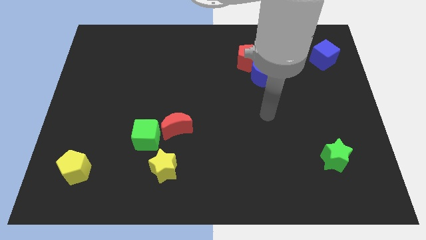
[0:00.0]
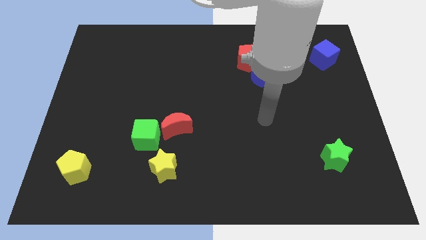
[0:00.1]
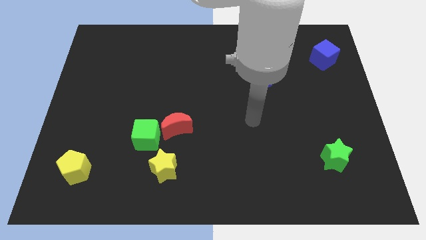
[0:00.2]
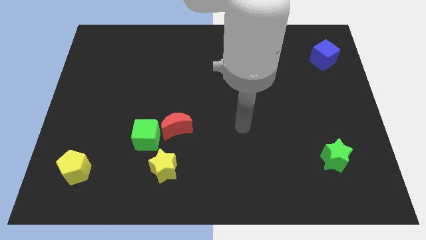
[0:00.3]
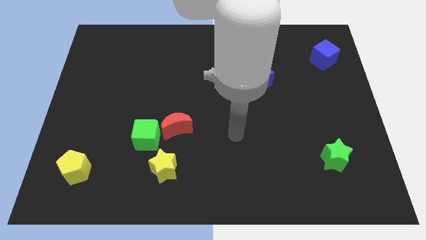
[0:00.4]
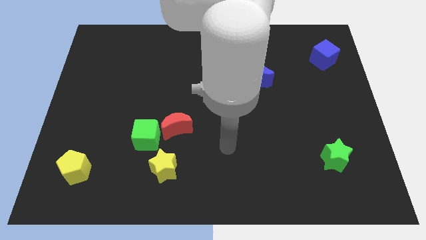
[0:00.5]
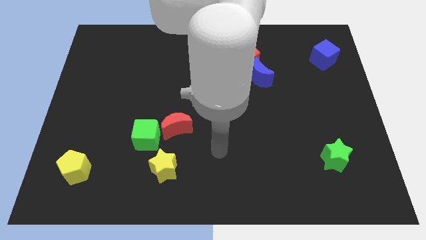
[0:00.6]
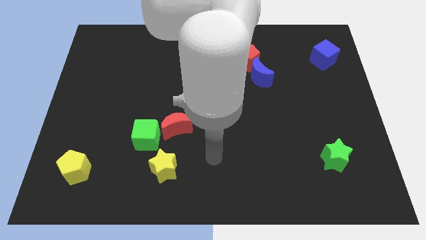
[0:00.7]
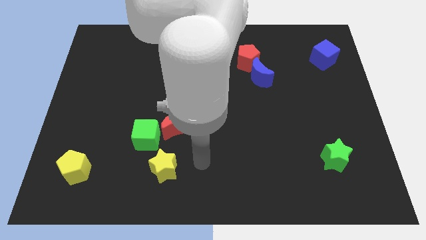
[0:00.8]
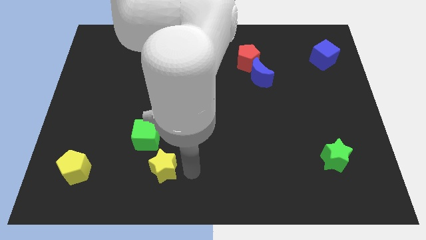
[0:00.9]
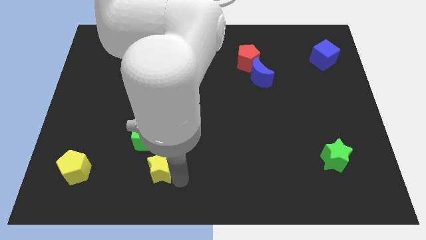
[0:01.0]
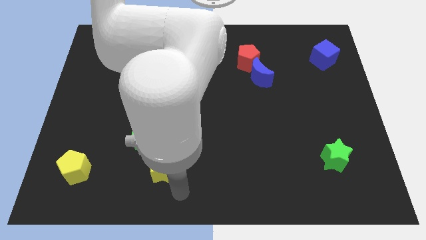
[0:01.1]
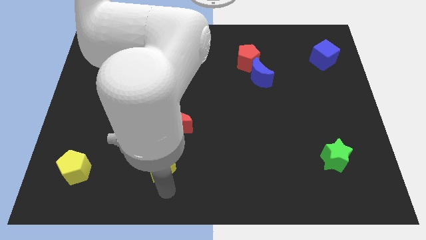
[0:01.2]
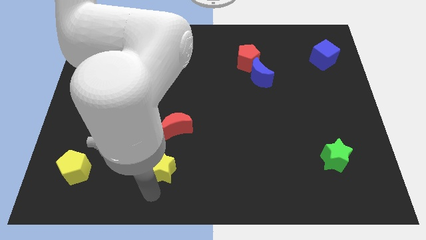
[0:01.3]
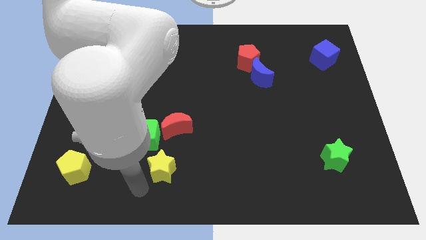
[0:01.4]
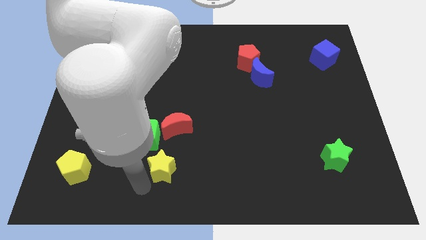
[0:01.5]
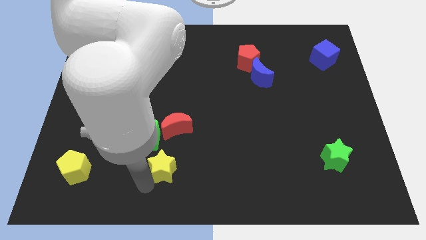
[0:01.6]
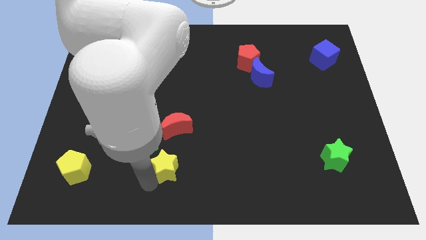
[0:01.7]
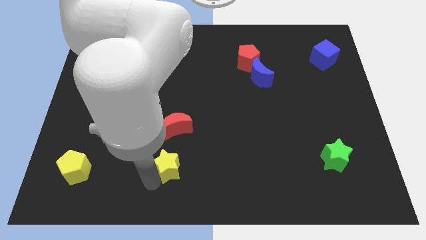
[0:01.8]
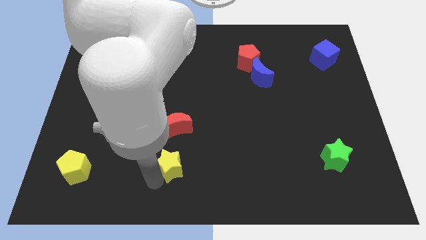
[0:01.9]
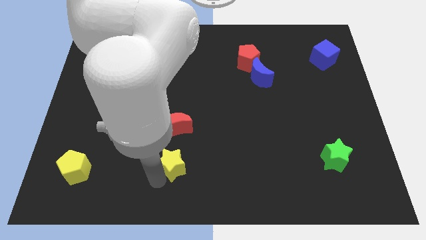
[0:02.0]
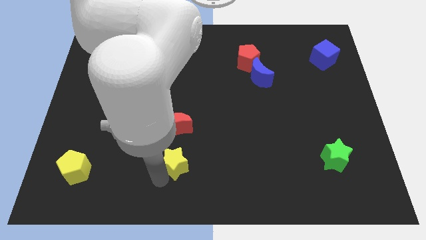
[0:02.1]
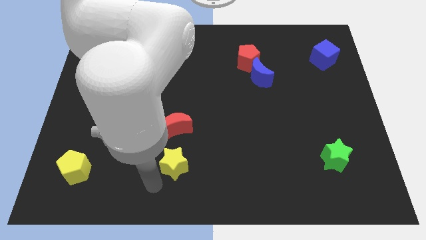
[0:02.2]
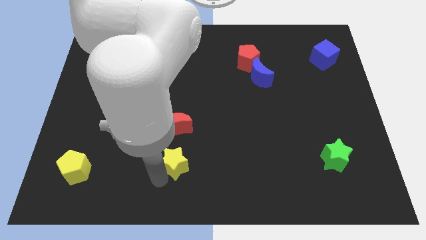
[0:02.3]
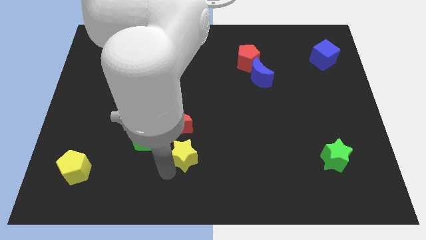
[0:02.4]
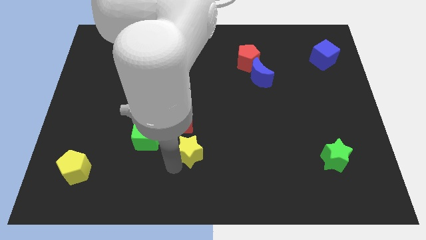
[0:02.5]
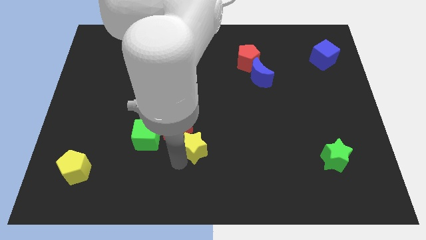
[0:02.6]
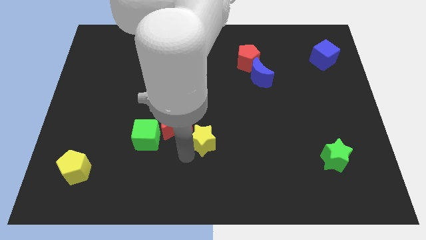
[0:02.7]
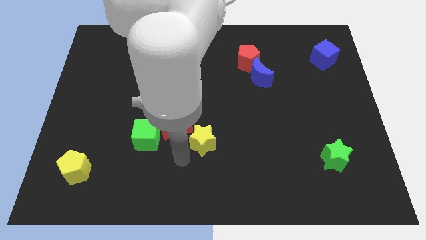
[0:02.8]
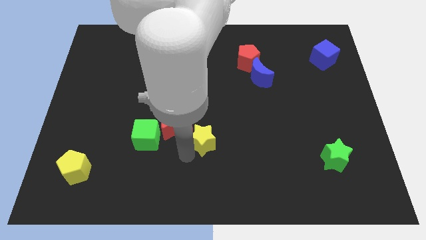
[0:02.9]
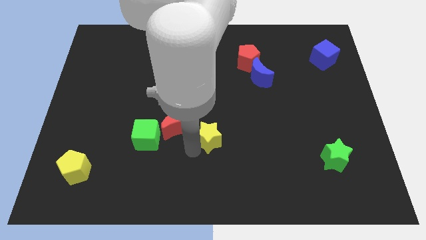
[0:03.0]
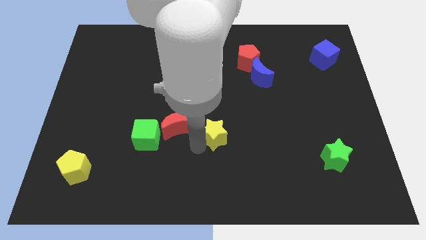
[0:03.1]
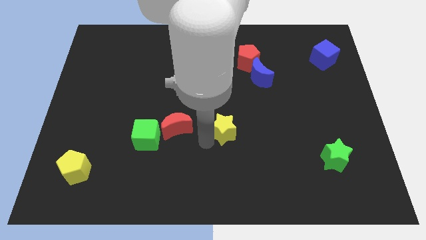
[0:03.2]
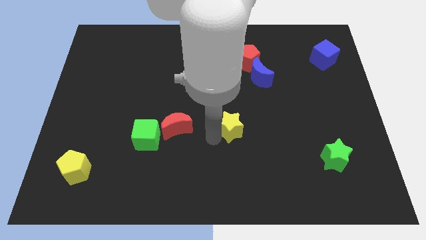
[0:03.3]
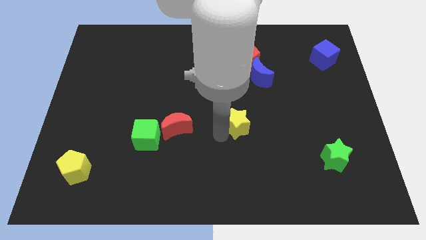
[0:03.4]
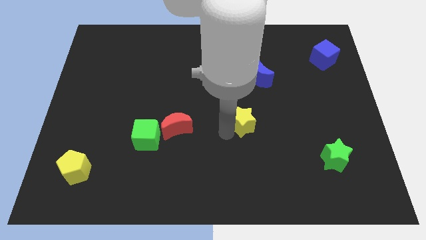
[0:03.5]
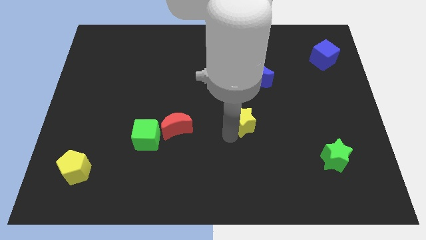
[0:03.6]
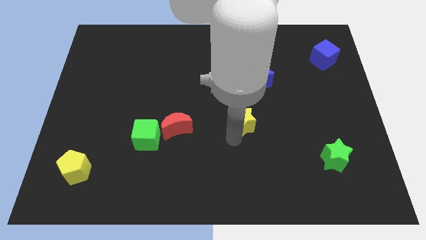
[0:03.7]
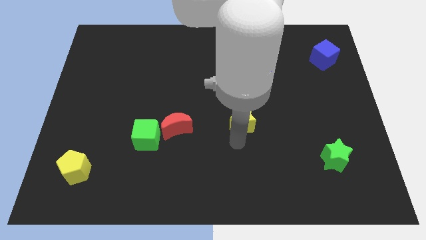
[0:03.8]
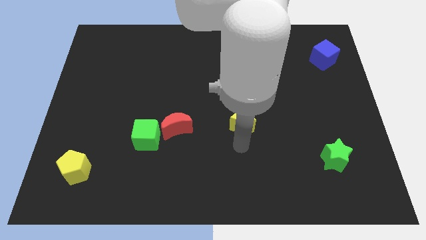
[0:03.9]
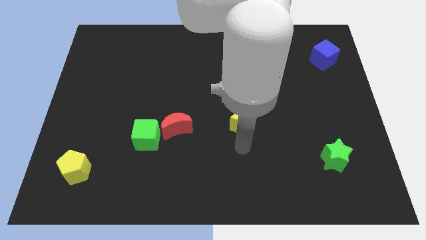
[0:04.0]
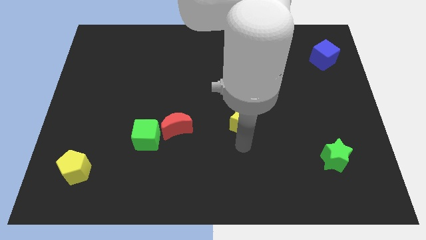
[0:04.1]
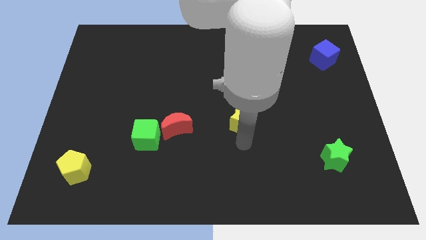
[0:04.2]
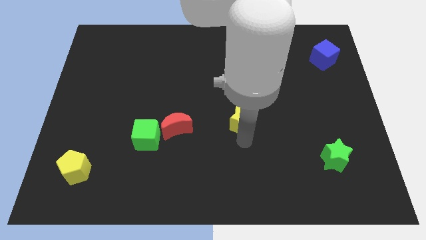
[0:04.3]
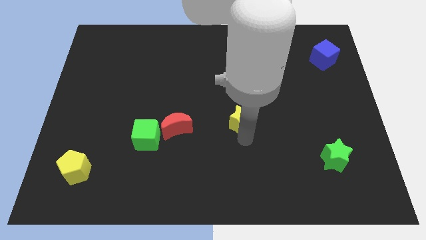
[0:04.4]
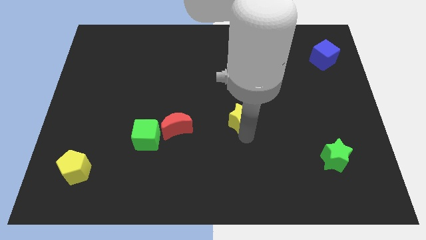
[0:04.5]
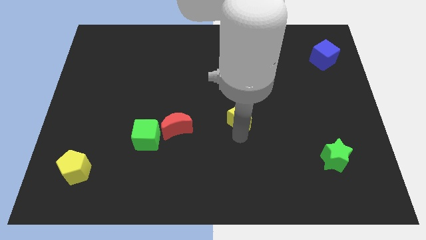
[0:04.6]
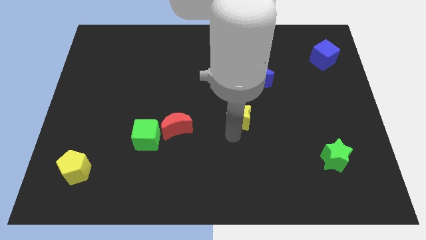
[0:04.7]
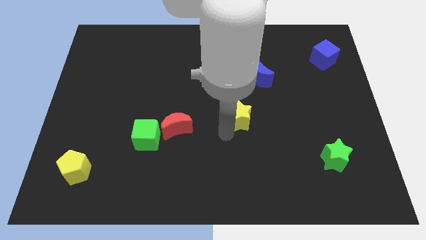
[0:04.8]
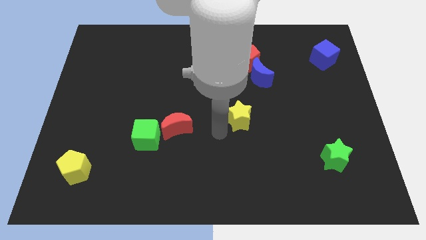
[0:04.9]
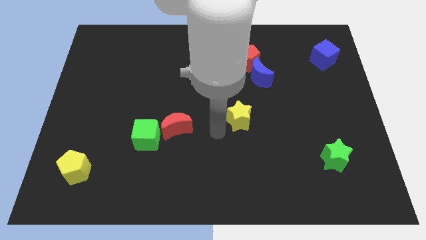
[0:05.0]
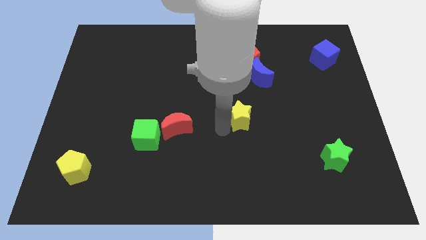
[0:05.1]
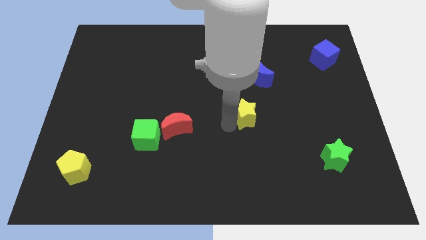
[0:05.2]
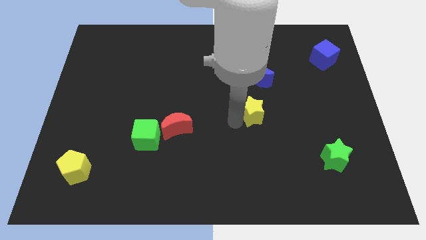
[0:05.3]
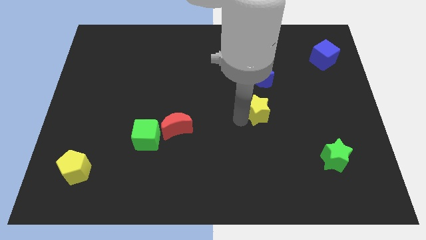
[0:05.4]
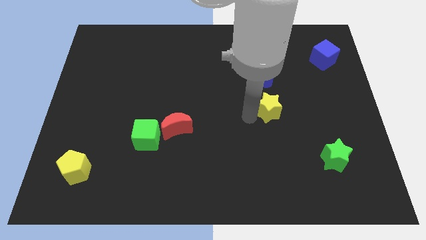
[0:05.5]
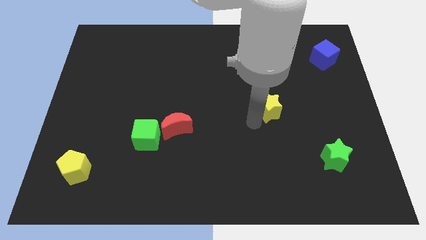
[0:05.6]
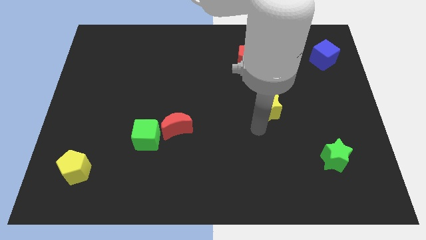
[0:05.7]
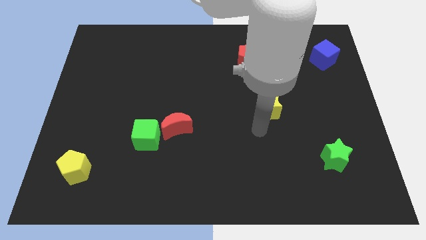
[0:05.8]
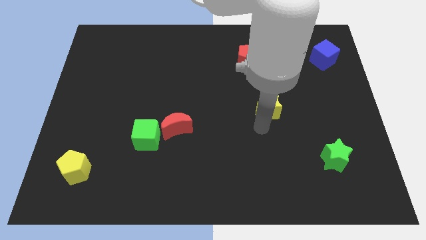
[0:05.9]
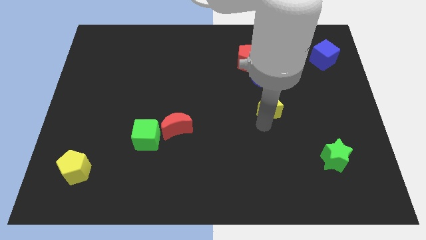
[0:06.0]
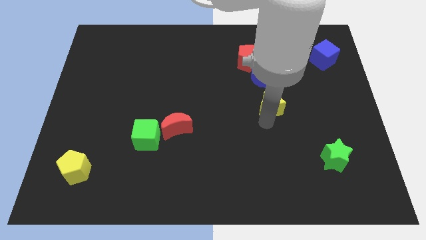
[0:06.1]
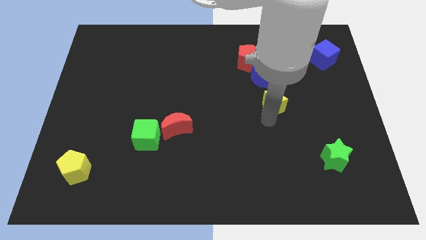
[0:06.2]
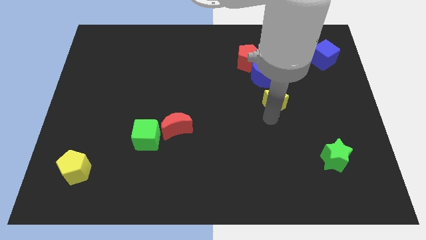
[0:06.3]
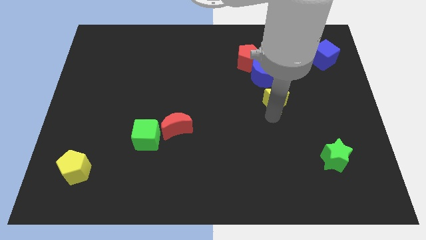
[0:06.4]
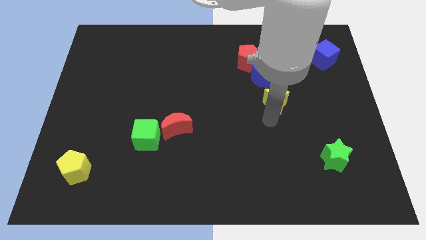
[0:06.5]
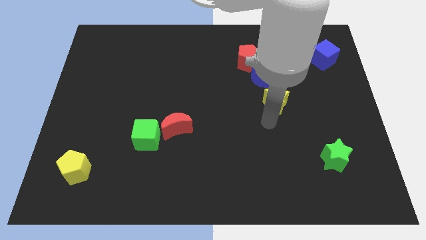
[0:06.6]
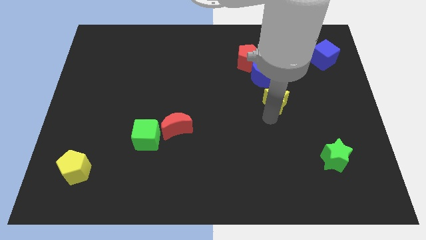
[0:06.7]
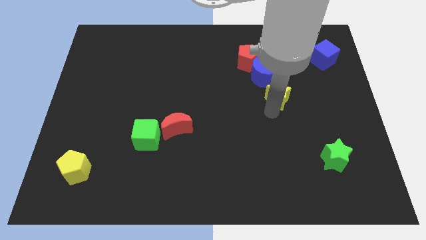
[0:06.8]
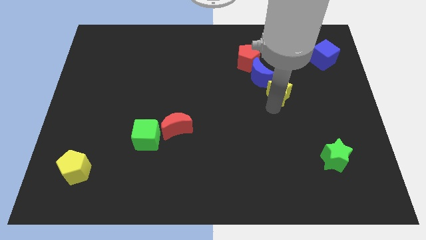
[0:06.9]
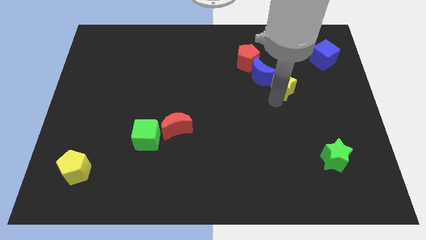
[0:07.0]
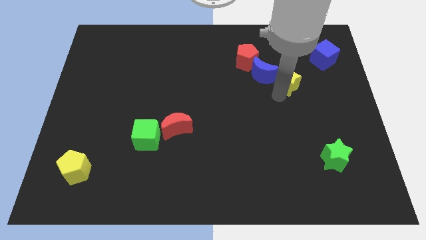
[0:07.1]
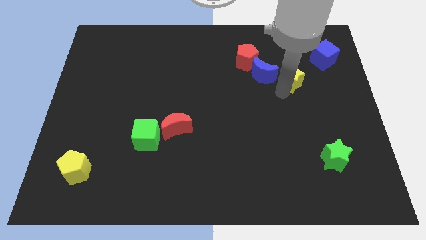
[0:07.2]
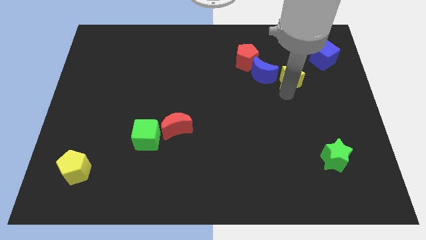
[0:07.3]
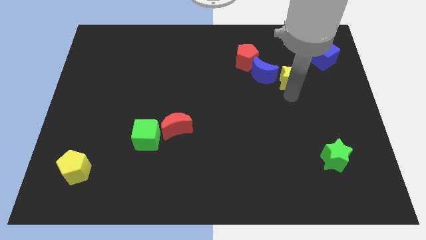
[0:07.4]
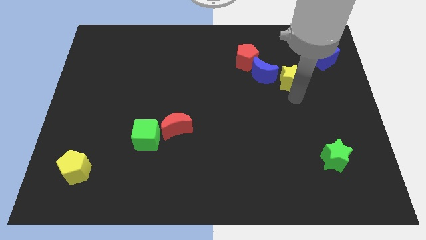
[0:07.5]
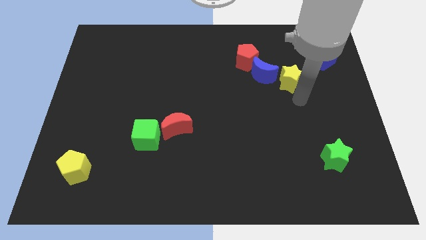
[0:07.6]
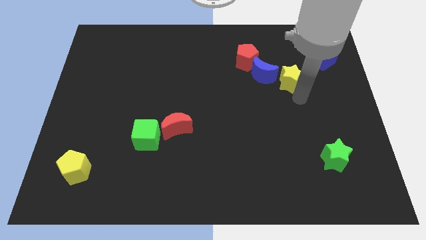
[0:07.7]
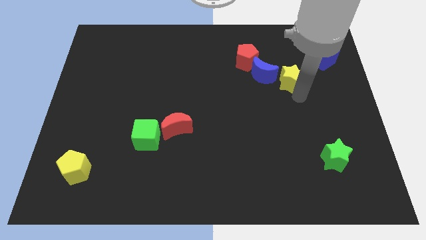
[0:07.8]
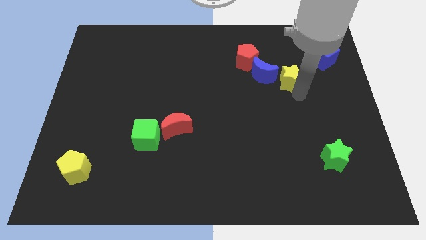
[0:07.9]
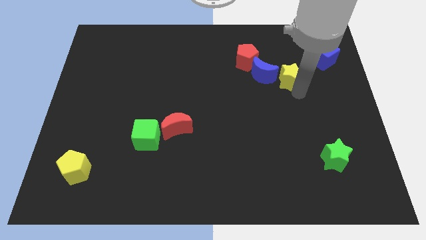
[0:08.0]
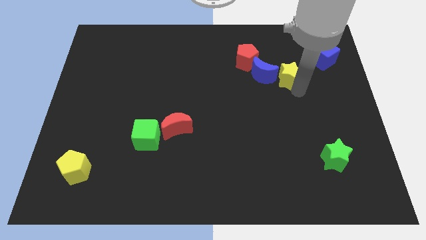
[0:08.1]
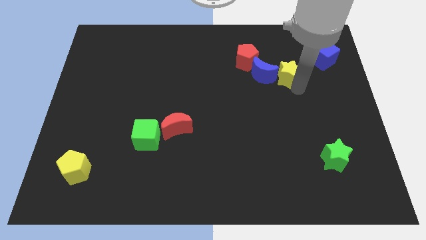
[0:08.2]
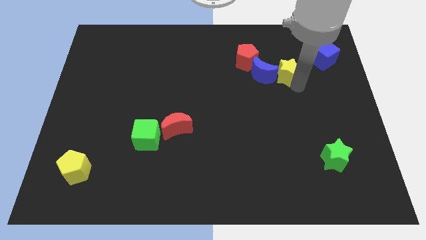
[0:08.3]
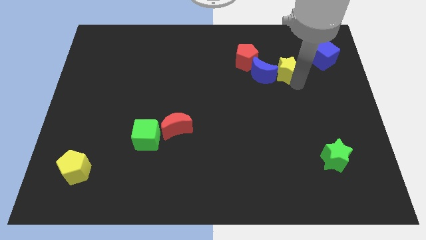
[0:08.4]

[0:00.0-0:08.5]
move the yellow star to the left of the blue cube
